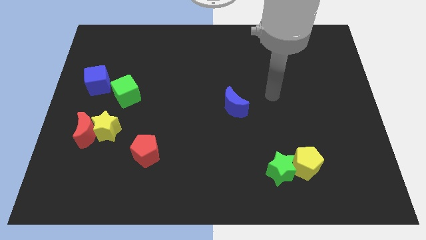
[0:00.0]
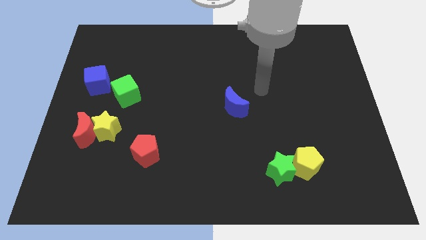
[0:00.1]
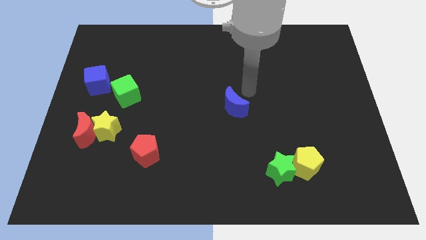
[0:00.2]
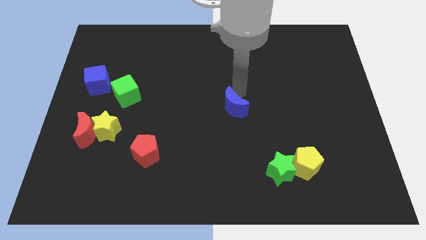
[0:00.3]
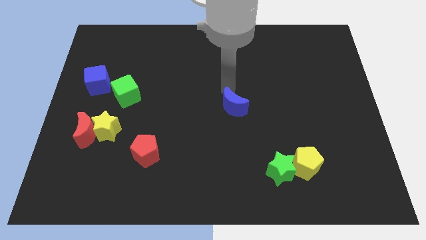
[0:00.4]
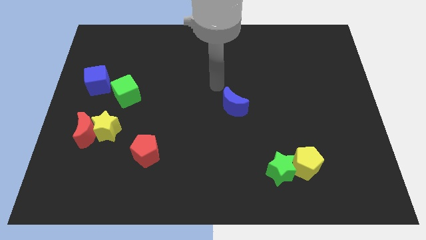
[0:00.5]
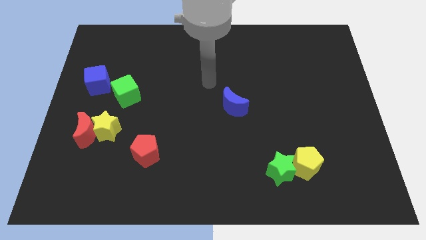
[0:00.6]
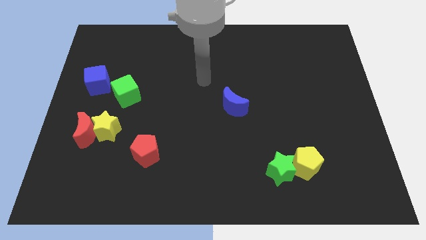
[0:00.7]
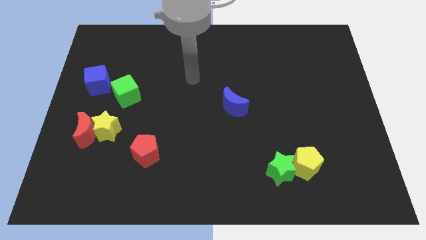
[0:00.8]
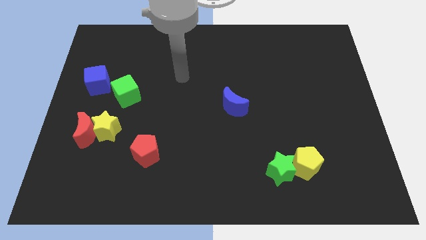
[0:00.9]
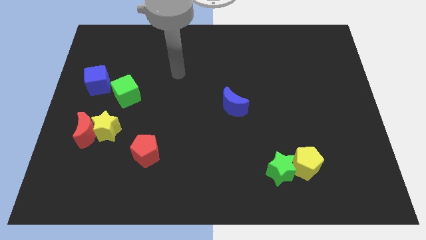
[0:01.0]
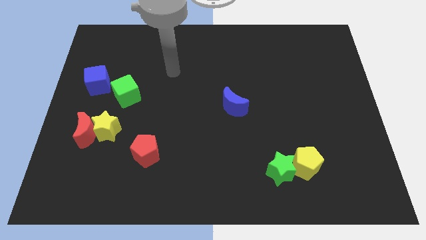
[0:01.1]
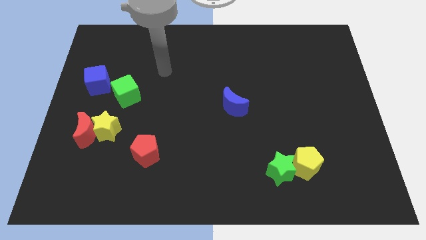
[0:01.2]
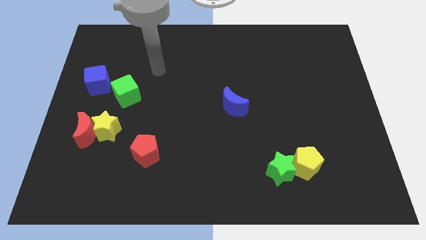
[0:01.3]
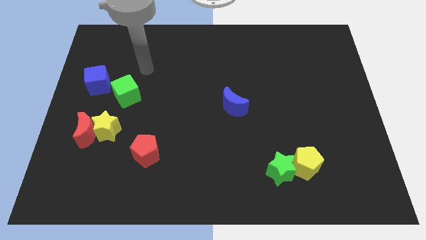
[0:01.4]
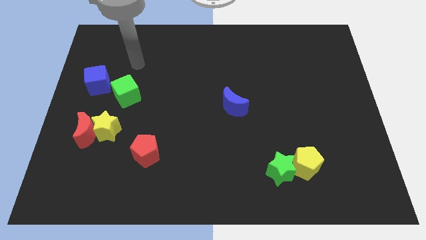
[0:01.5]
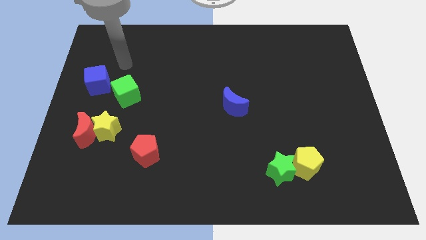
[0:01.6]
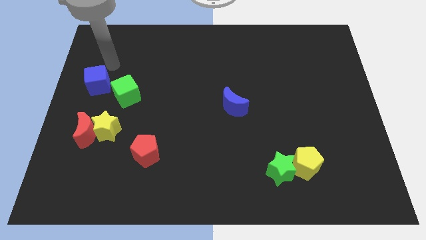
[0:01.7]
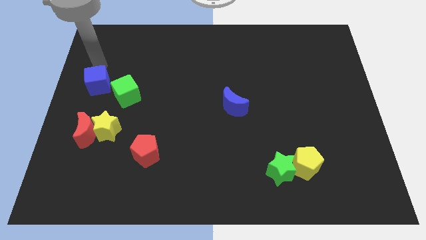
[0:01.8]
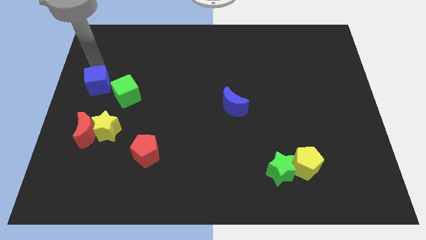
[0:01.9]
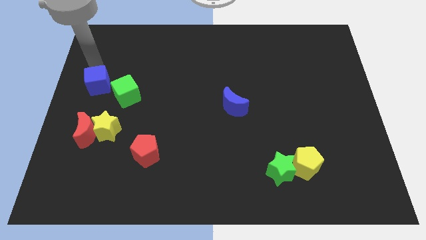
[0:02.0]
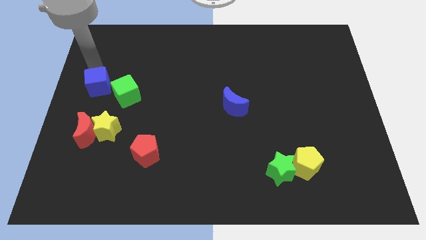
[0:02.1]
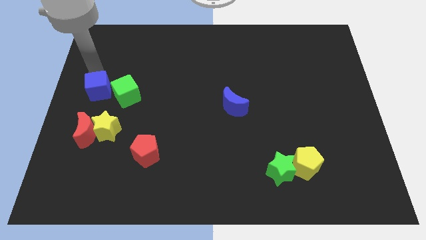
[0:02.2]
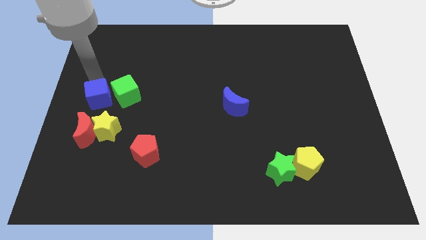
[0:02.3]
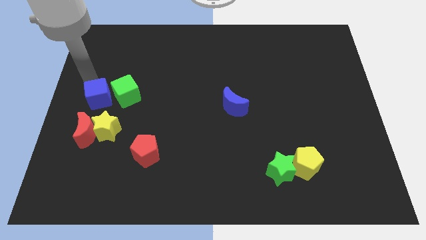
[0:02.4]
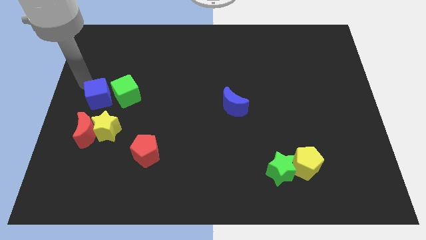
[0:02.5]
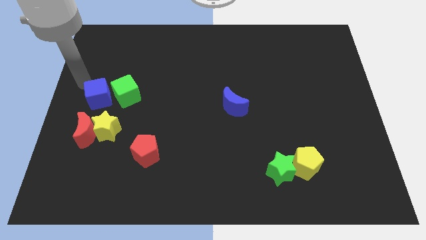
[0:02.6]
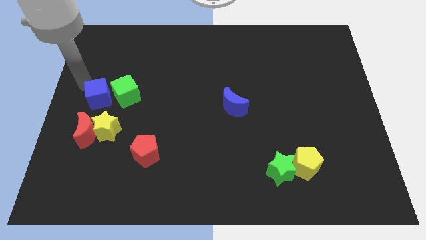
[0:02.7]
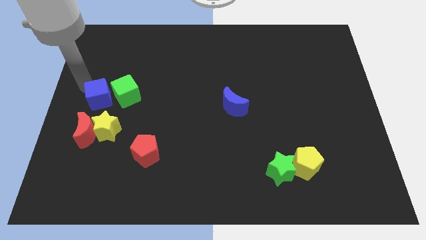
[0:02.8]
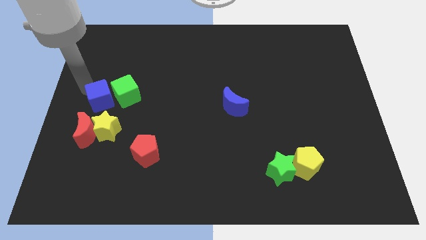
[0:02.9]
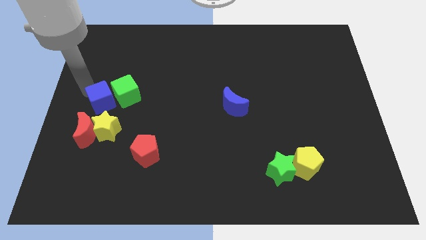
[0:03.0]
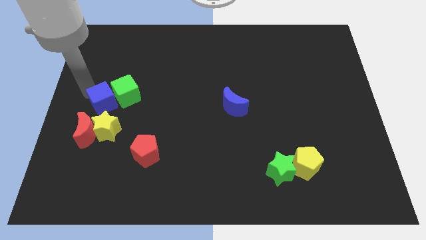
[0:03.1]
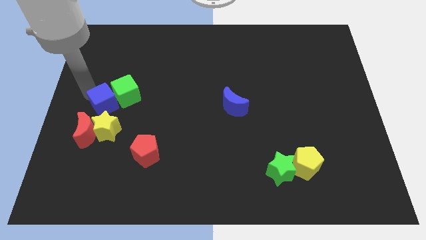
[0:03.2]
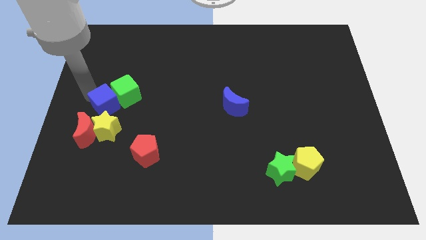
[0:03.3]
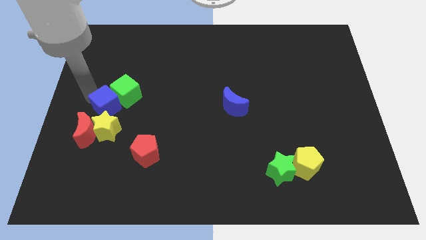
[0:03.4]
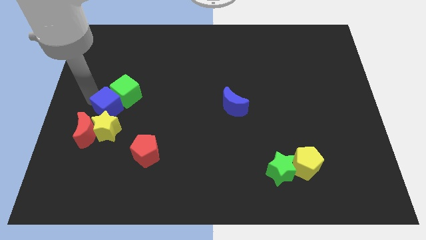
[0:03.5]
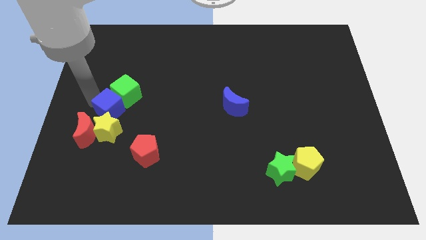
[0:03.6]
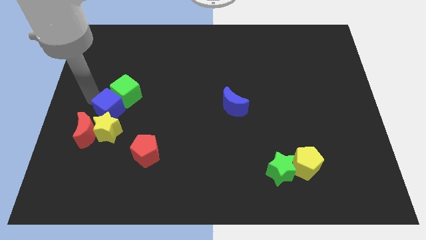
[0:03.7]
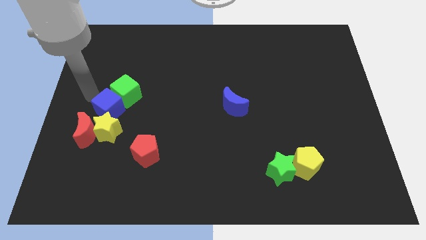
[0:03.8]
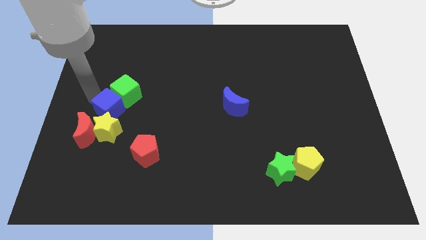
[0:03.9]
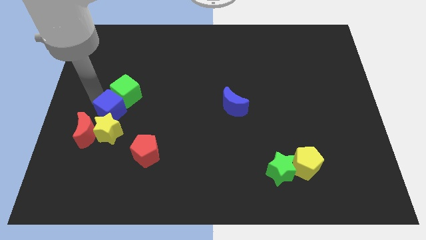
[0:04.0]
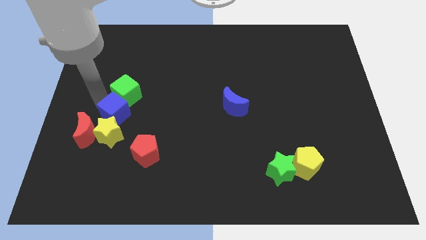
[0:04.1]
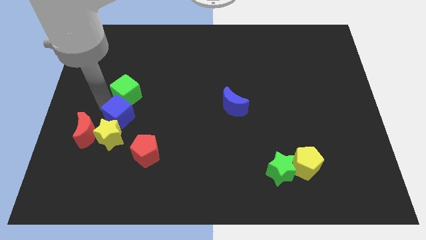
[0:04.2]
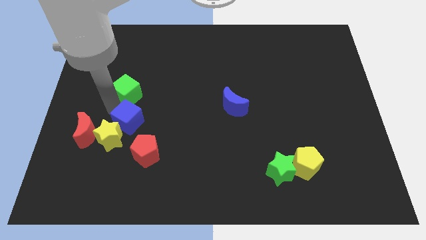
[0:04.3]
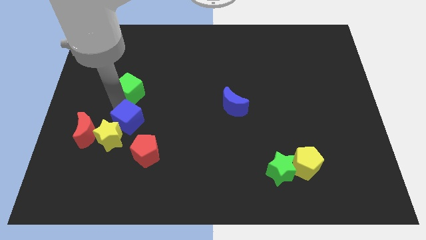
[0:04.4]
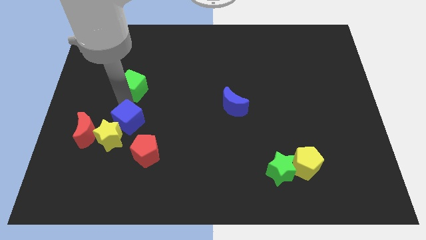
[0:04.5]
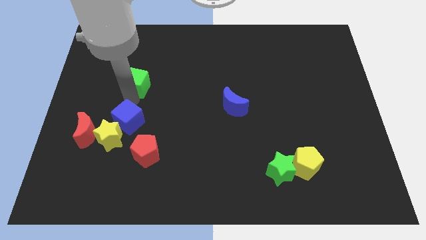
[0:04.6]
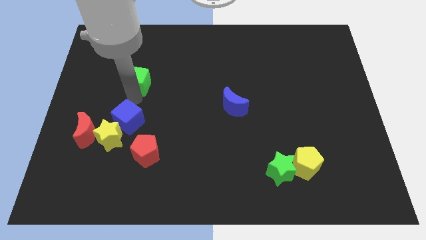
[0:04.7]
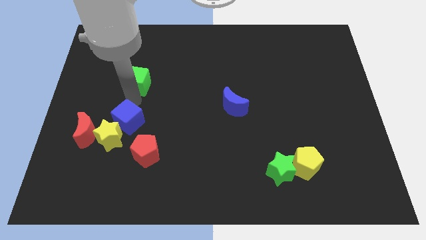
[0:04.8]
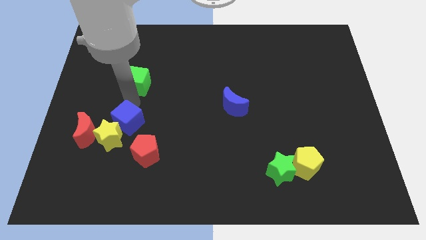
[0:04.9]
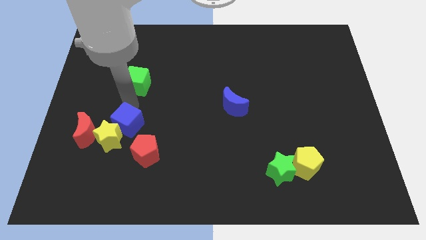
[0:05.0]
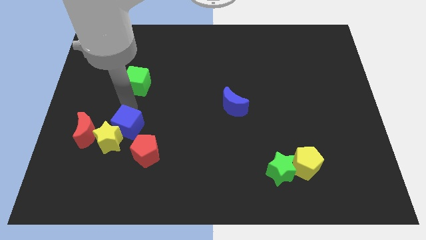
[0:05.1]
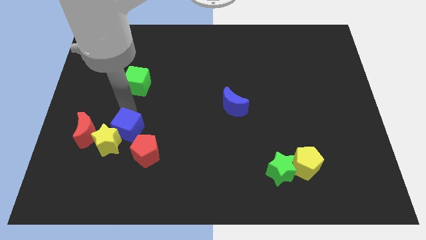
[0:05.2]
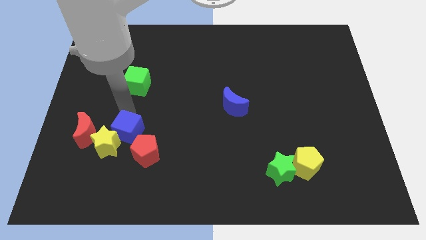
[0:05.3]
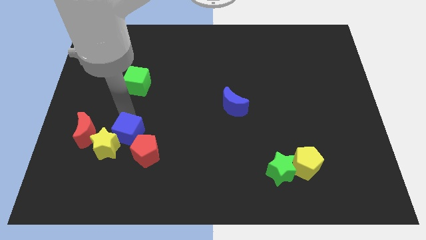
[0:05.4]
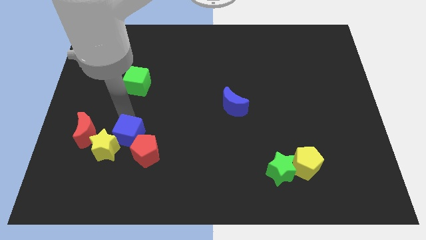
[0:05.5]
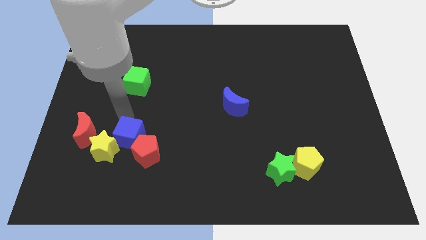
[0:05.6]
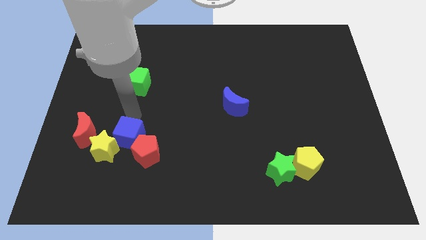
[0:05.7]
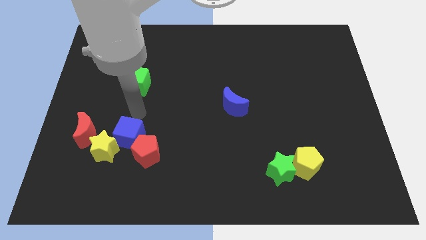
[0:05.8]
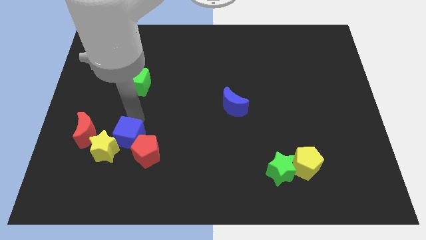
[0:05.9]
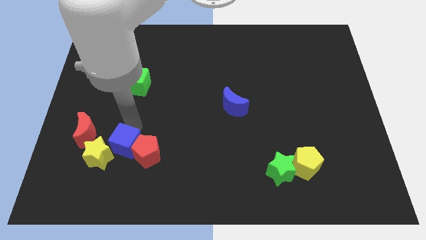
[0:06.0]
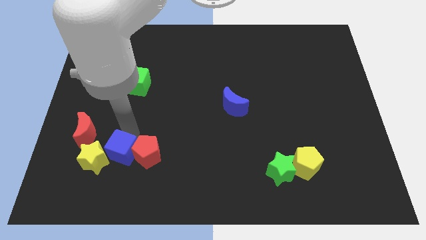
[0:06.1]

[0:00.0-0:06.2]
move the blue cube to the bottom left side of the red pentagon
